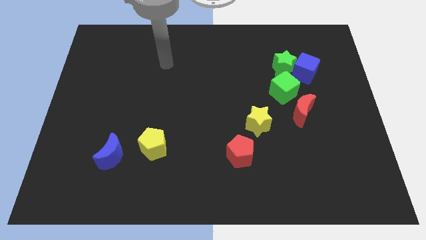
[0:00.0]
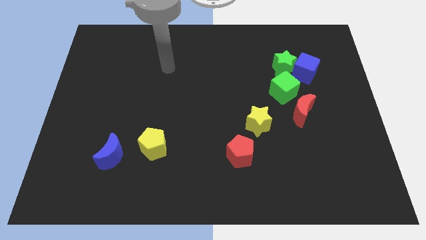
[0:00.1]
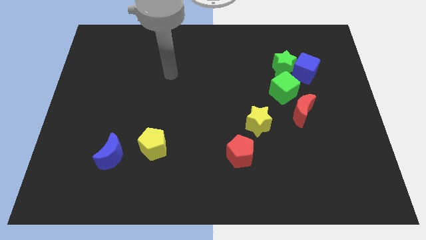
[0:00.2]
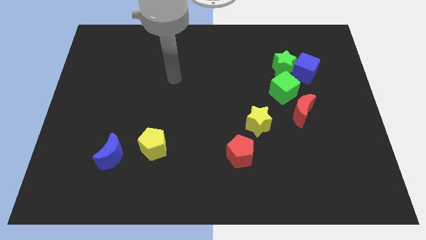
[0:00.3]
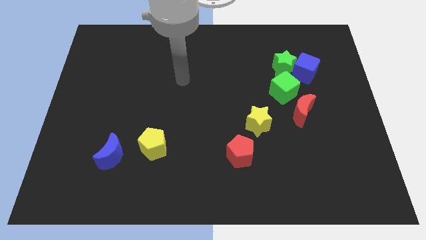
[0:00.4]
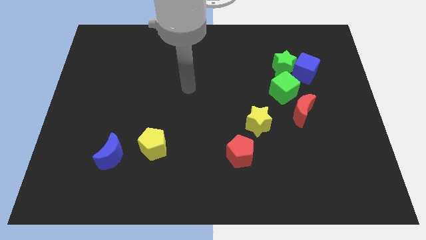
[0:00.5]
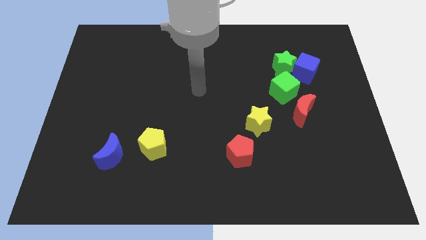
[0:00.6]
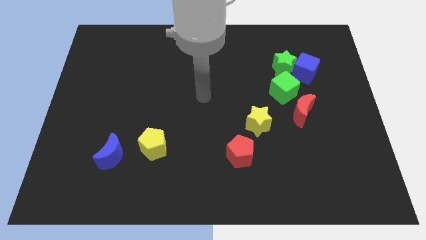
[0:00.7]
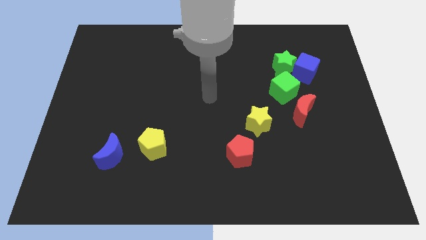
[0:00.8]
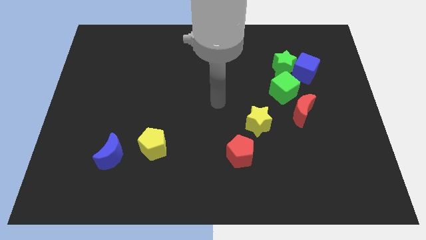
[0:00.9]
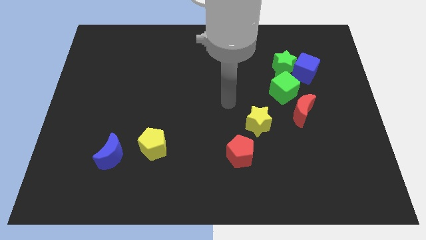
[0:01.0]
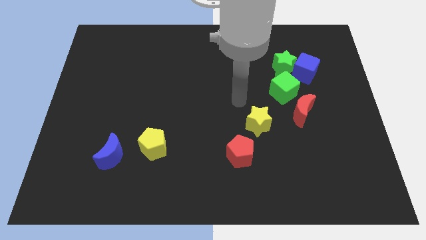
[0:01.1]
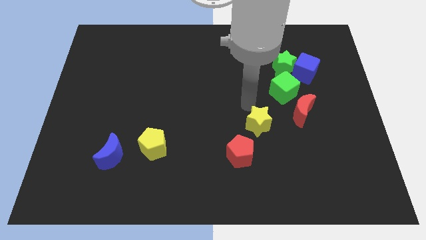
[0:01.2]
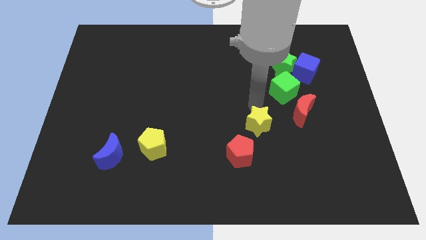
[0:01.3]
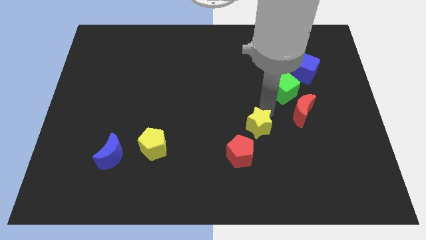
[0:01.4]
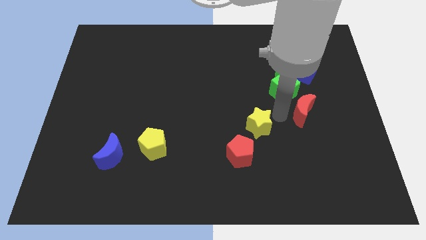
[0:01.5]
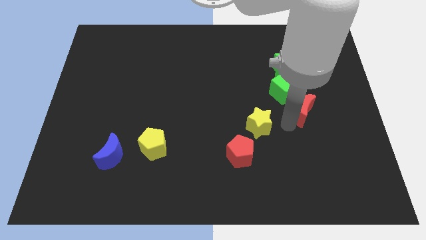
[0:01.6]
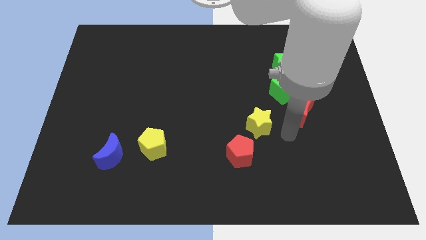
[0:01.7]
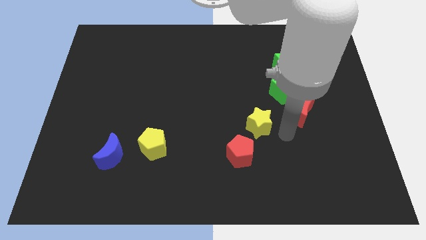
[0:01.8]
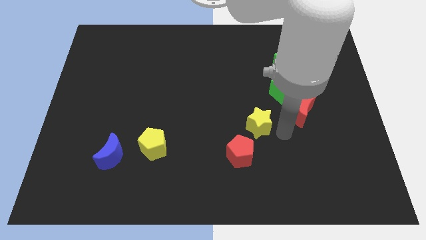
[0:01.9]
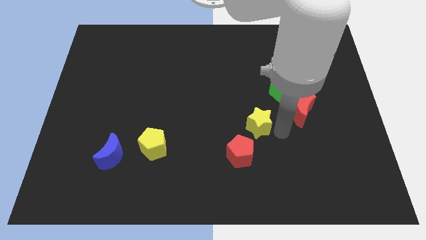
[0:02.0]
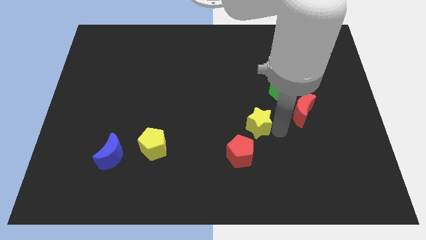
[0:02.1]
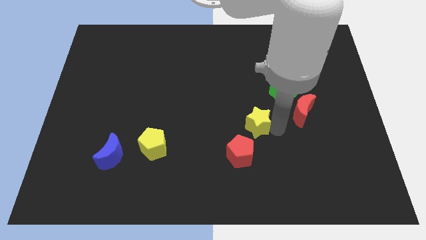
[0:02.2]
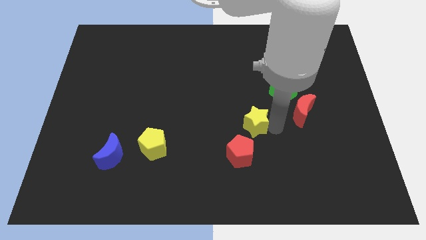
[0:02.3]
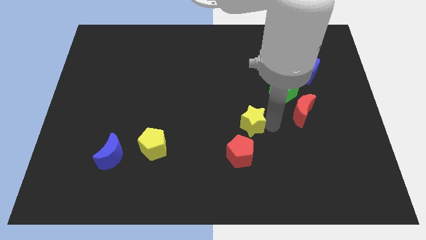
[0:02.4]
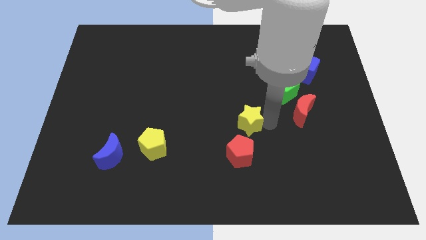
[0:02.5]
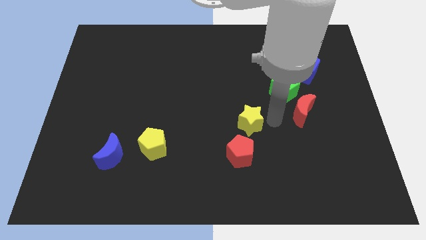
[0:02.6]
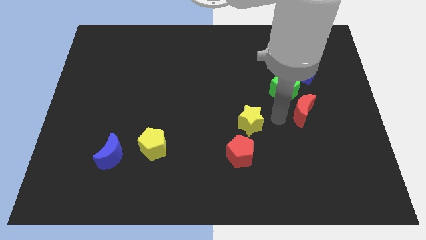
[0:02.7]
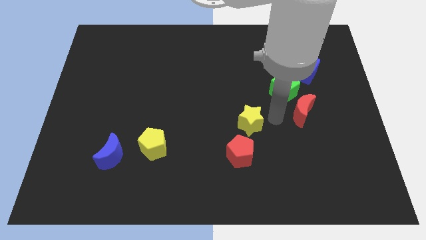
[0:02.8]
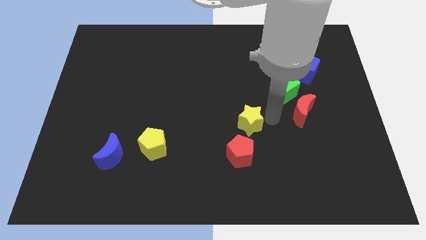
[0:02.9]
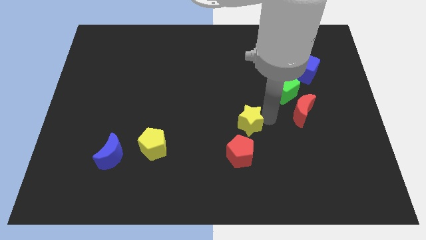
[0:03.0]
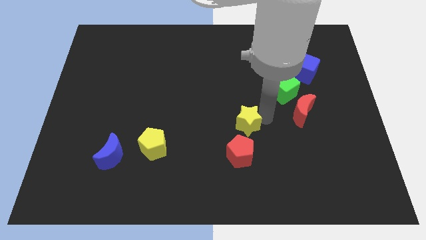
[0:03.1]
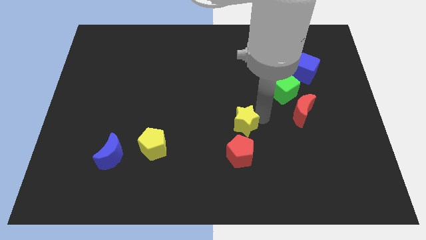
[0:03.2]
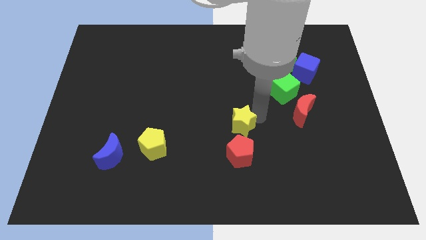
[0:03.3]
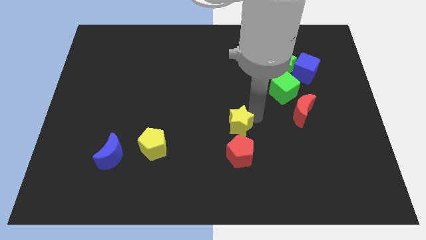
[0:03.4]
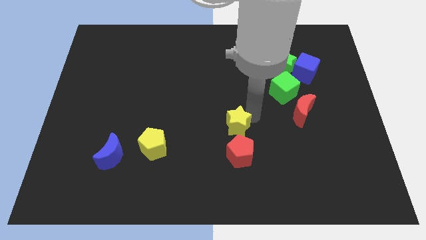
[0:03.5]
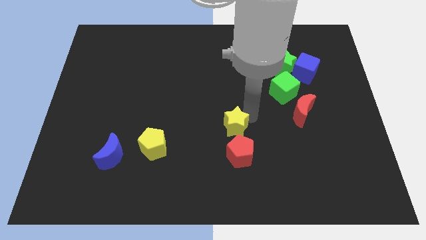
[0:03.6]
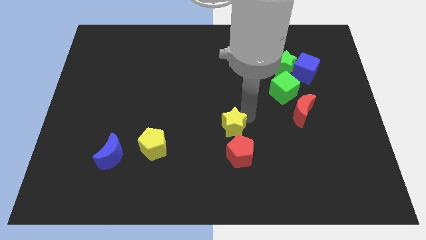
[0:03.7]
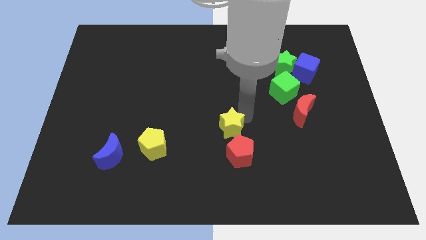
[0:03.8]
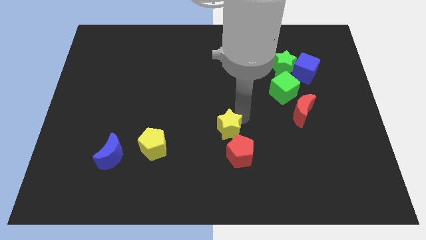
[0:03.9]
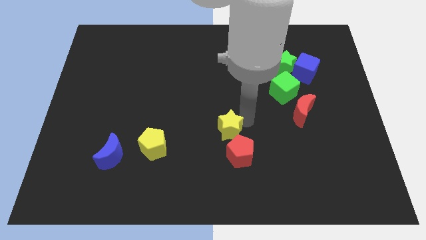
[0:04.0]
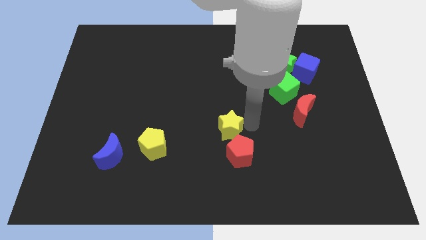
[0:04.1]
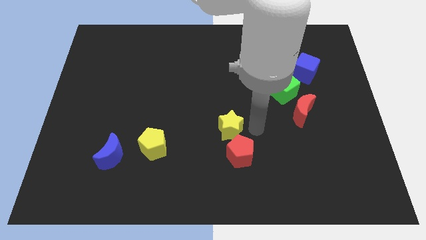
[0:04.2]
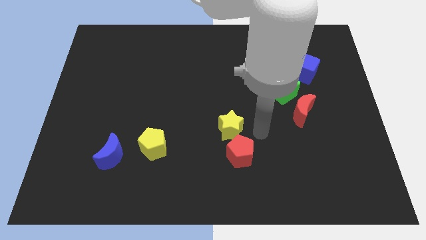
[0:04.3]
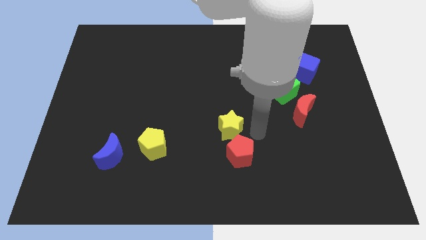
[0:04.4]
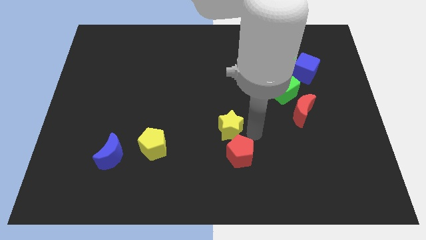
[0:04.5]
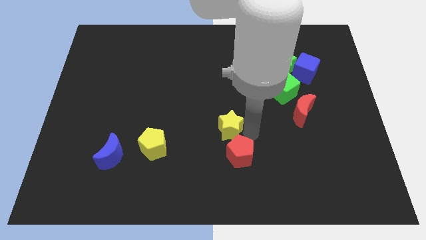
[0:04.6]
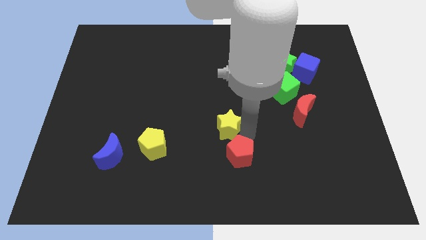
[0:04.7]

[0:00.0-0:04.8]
push the yellow star a bit to the left

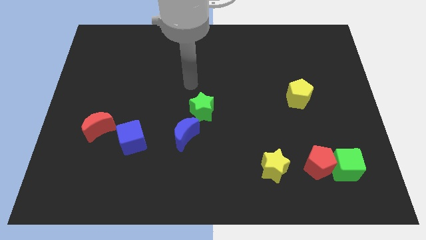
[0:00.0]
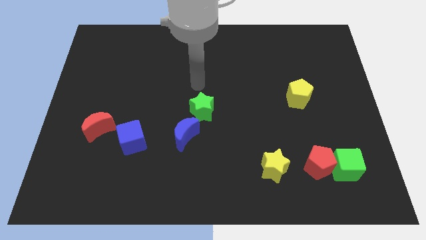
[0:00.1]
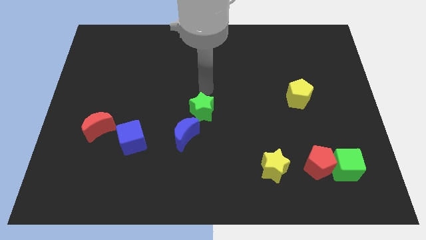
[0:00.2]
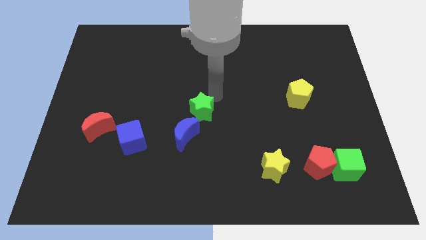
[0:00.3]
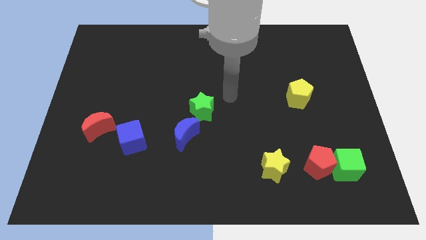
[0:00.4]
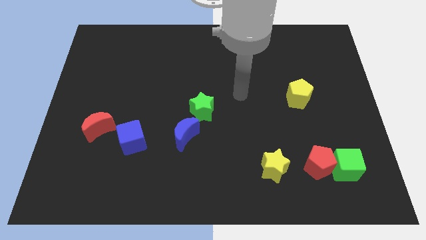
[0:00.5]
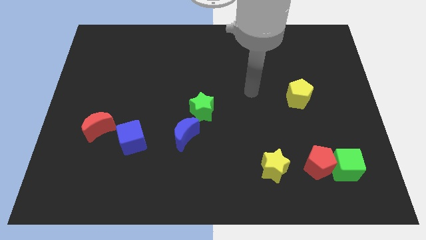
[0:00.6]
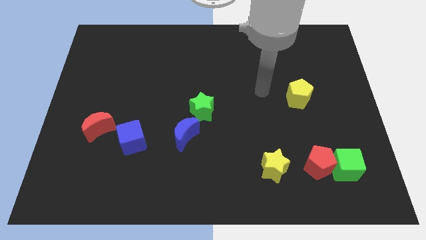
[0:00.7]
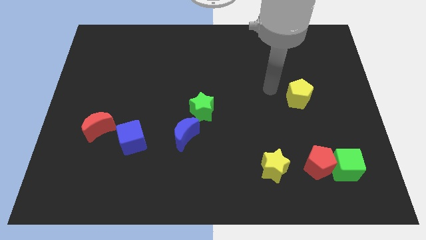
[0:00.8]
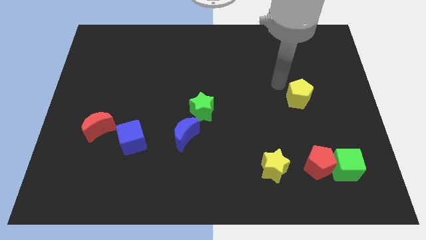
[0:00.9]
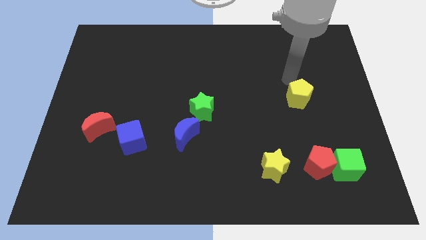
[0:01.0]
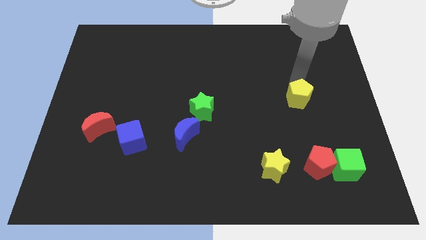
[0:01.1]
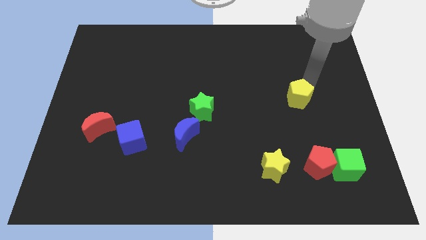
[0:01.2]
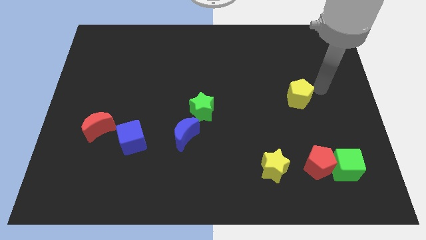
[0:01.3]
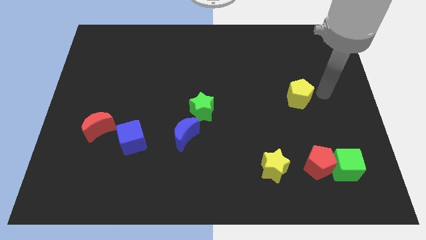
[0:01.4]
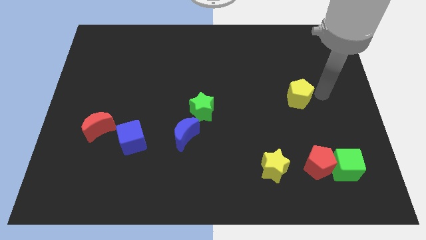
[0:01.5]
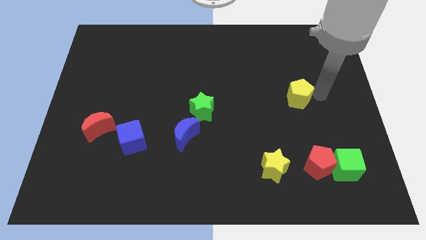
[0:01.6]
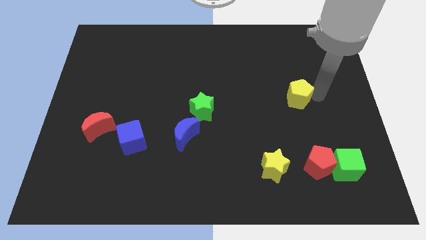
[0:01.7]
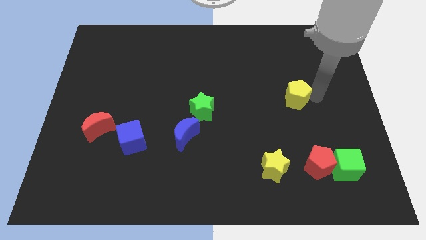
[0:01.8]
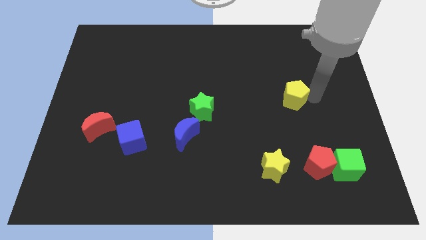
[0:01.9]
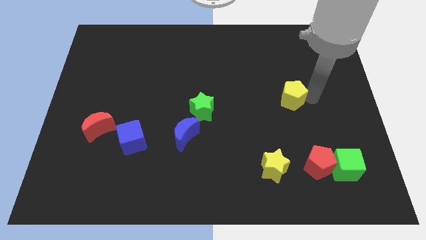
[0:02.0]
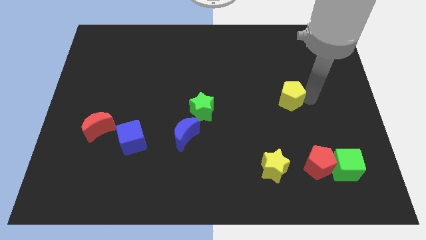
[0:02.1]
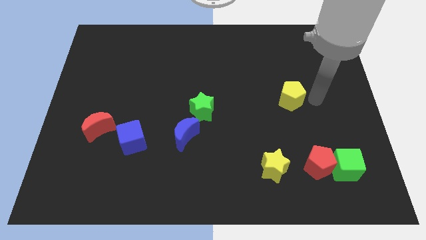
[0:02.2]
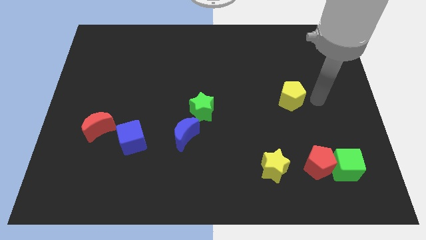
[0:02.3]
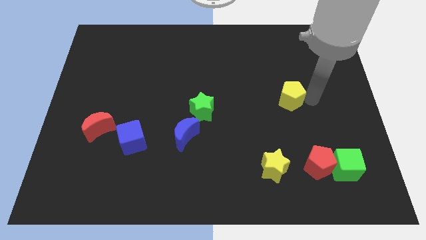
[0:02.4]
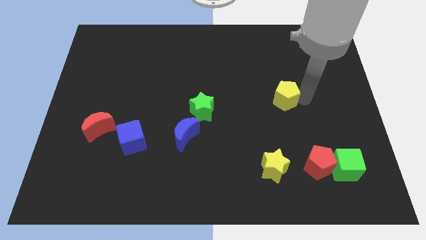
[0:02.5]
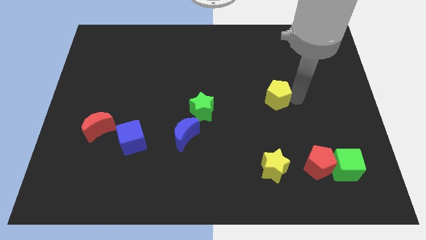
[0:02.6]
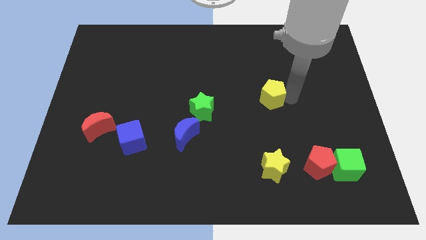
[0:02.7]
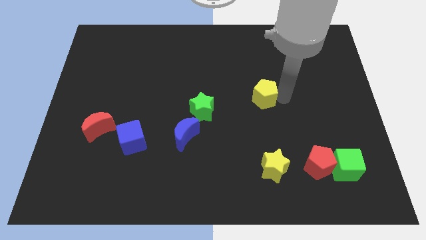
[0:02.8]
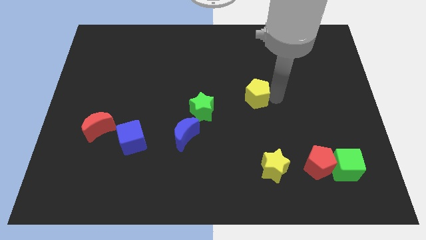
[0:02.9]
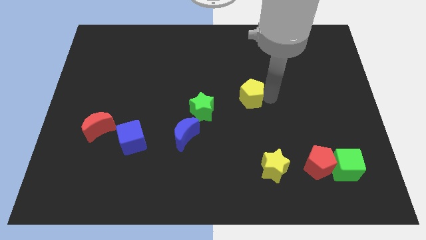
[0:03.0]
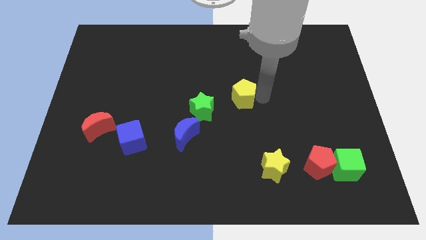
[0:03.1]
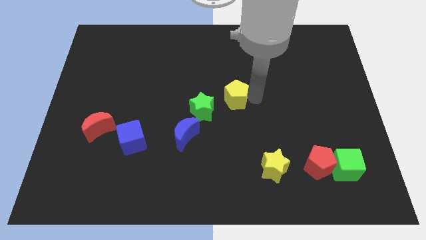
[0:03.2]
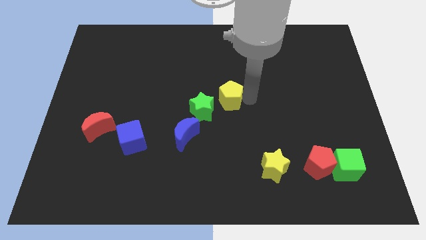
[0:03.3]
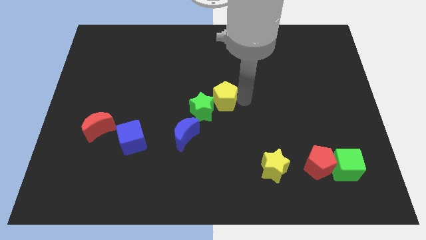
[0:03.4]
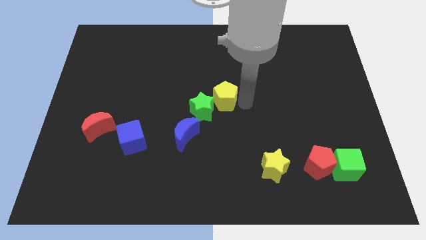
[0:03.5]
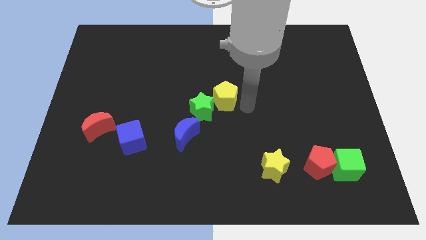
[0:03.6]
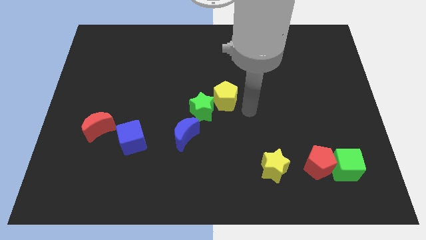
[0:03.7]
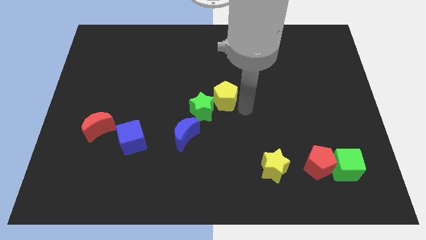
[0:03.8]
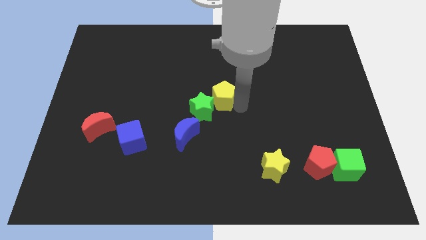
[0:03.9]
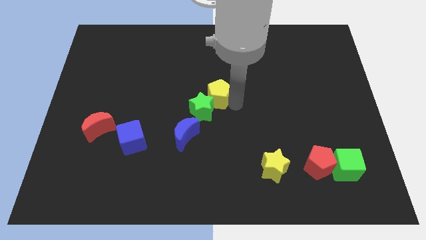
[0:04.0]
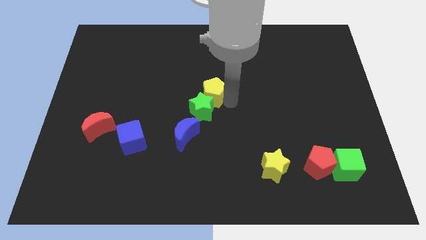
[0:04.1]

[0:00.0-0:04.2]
push the yellow pentagon left
